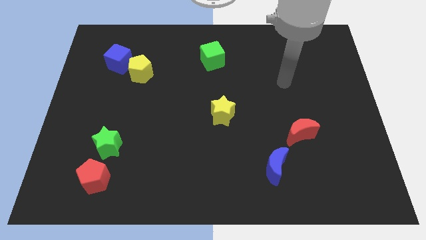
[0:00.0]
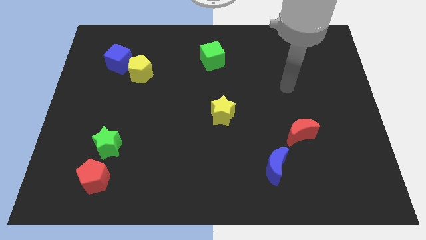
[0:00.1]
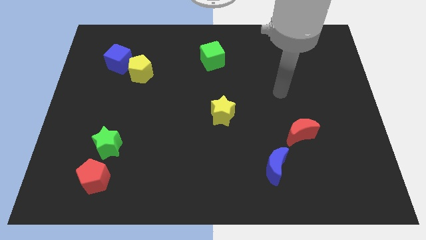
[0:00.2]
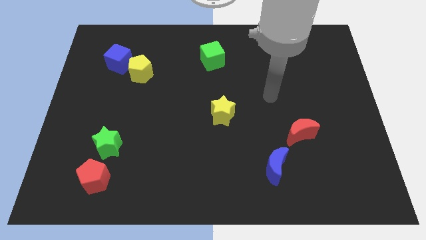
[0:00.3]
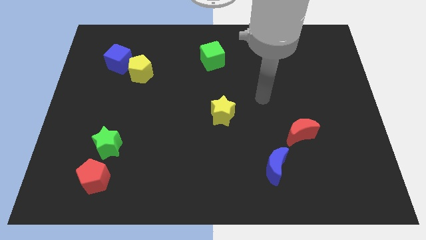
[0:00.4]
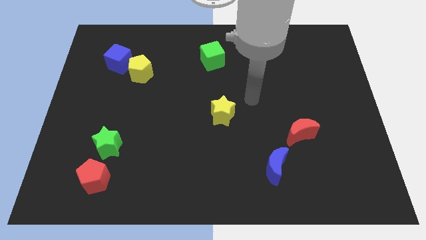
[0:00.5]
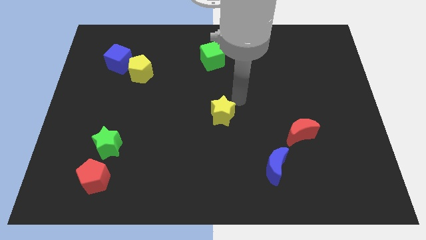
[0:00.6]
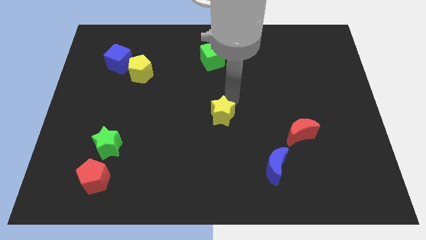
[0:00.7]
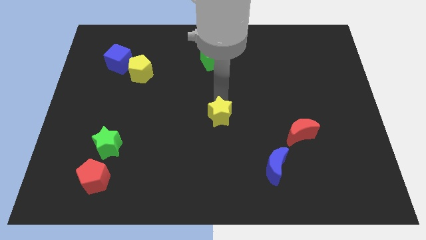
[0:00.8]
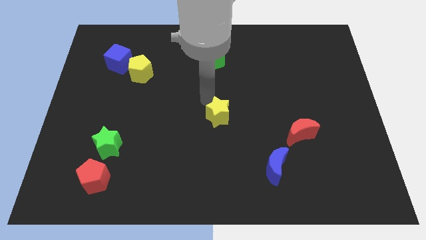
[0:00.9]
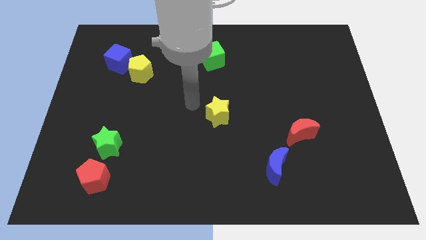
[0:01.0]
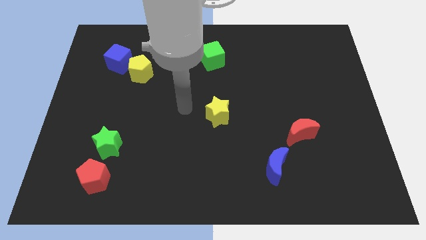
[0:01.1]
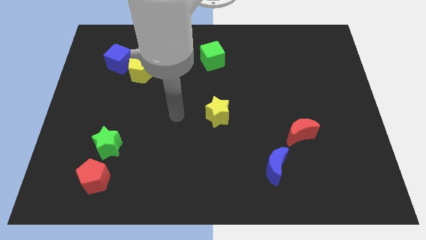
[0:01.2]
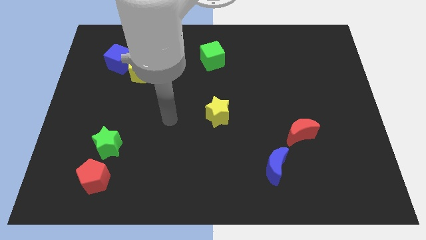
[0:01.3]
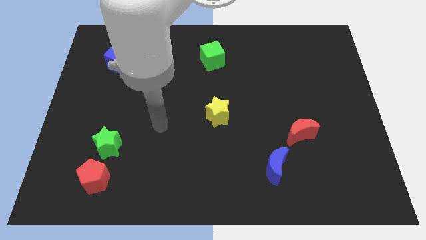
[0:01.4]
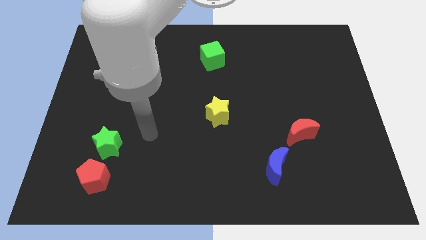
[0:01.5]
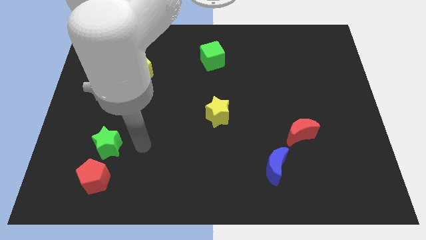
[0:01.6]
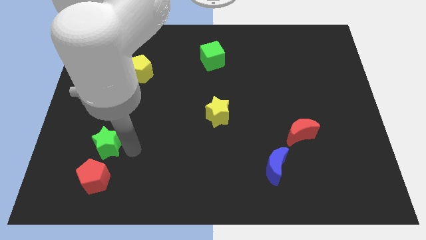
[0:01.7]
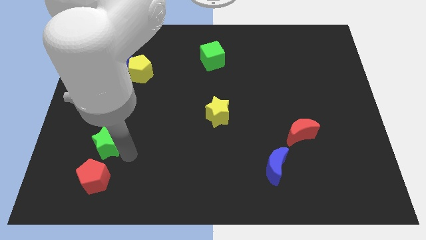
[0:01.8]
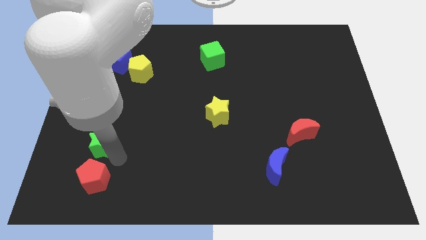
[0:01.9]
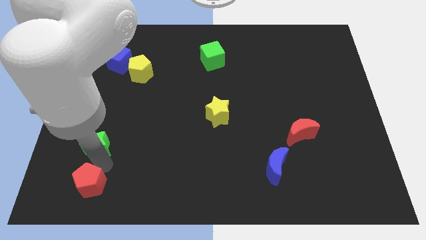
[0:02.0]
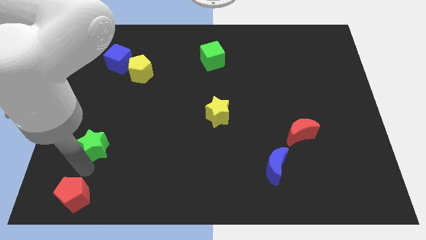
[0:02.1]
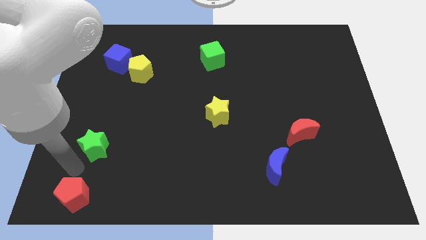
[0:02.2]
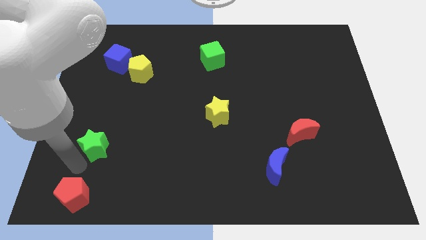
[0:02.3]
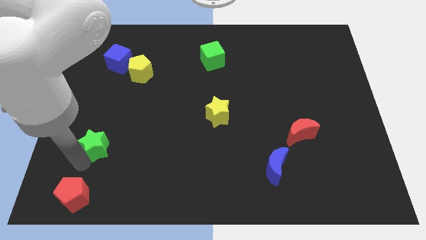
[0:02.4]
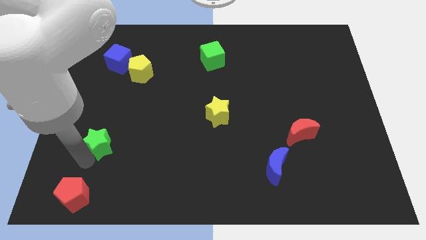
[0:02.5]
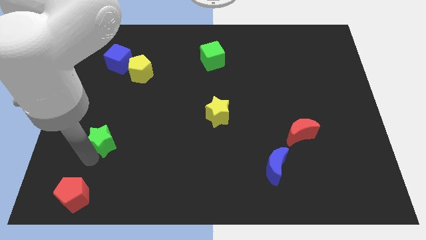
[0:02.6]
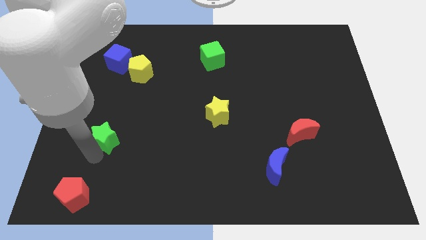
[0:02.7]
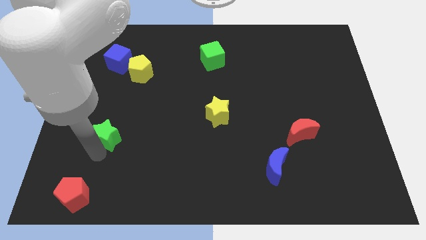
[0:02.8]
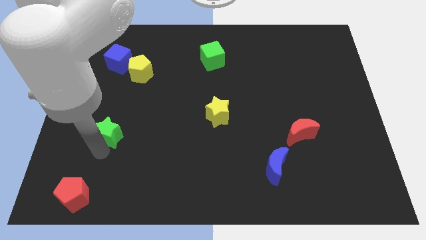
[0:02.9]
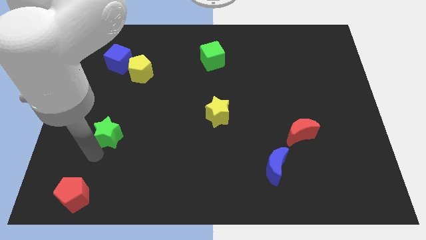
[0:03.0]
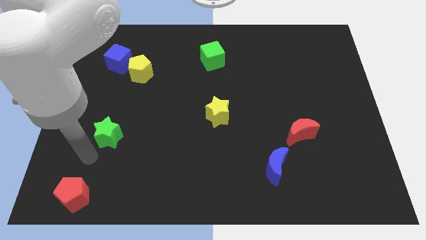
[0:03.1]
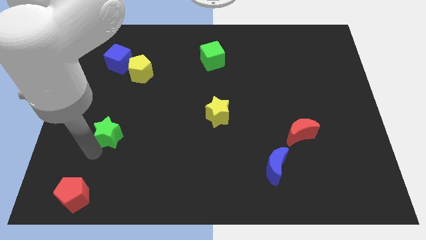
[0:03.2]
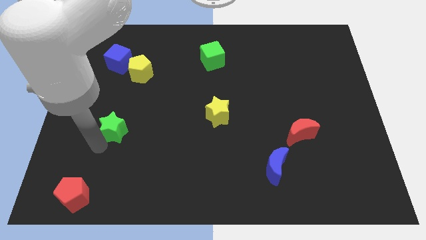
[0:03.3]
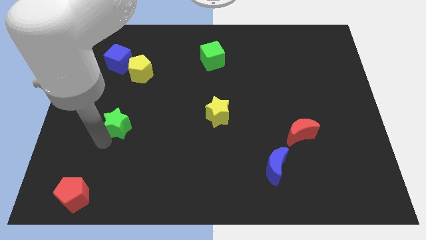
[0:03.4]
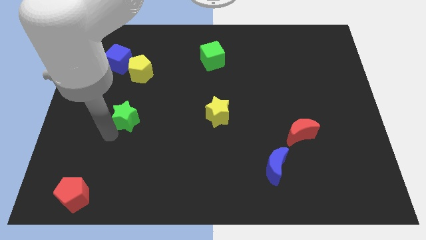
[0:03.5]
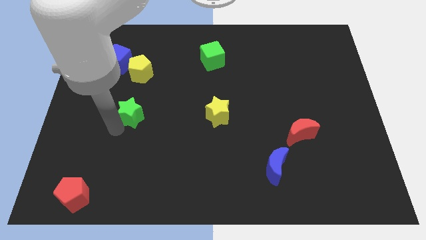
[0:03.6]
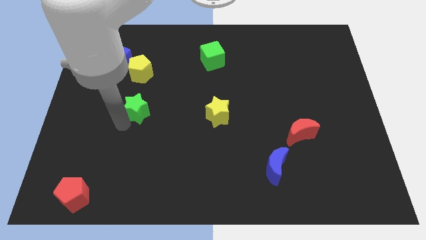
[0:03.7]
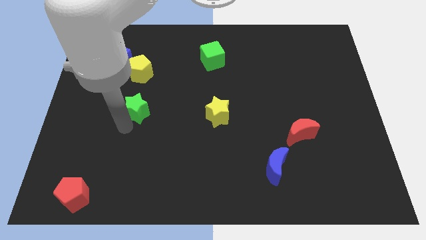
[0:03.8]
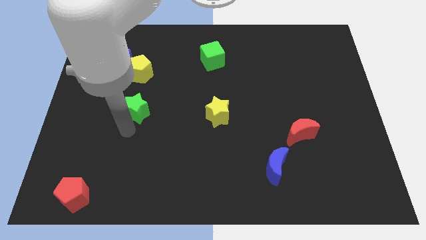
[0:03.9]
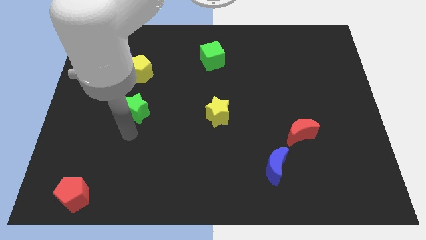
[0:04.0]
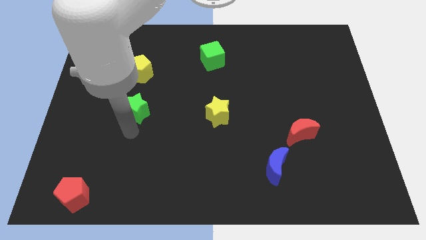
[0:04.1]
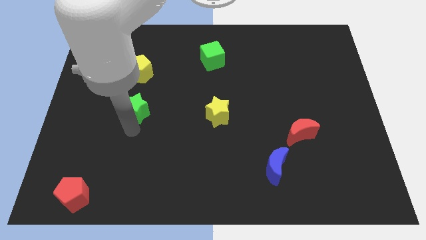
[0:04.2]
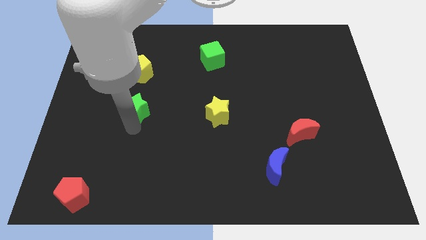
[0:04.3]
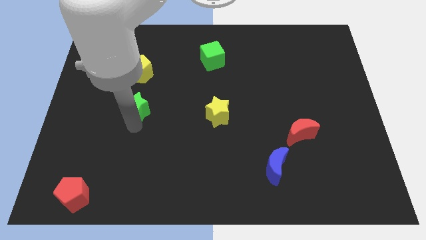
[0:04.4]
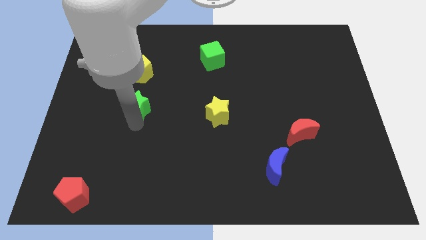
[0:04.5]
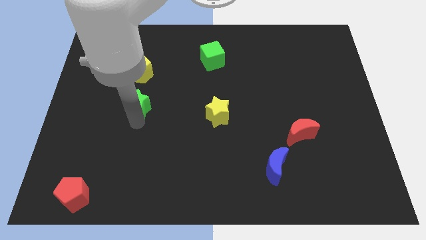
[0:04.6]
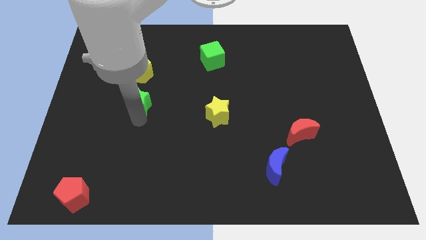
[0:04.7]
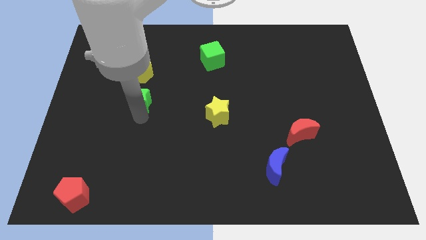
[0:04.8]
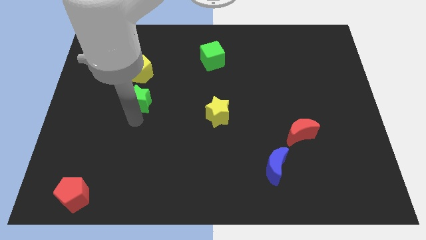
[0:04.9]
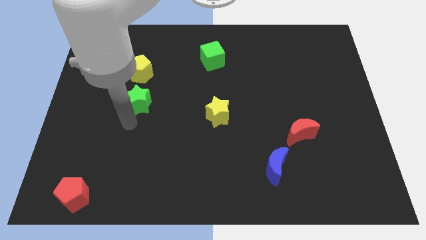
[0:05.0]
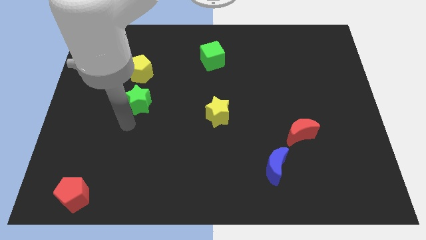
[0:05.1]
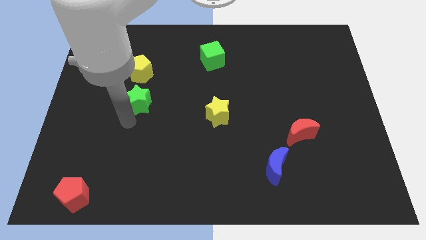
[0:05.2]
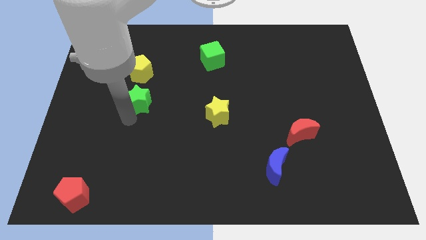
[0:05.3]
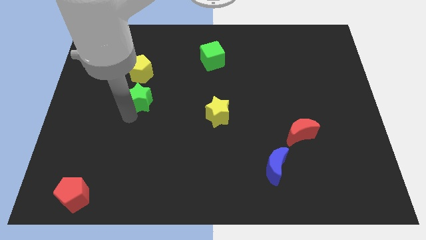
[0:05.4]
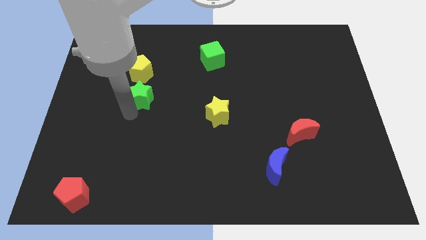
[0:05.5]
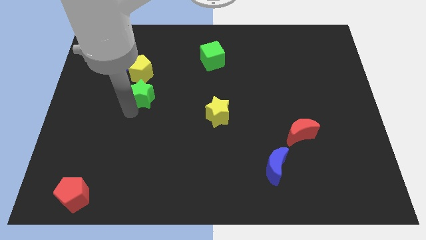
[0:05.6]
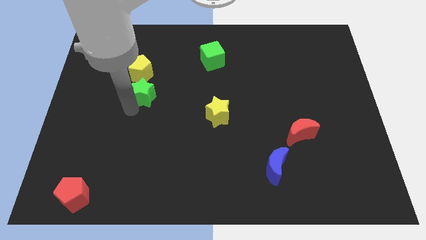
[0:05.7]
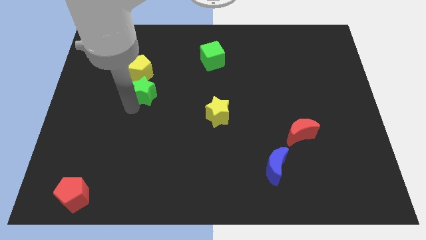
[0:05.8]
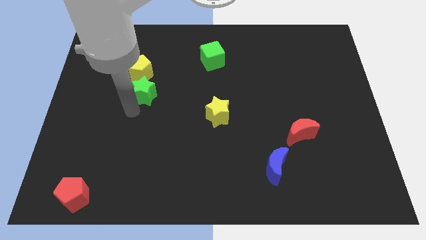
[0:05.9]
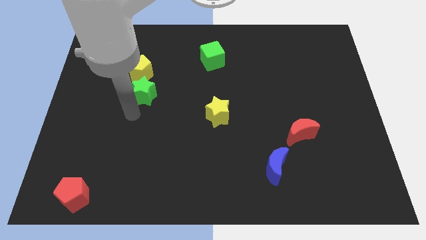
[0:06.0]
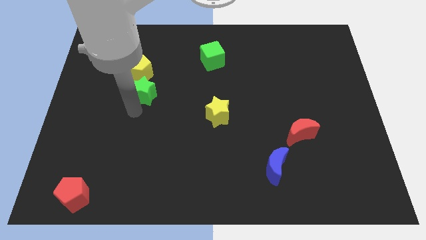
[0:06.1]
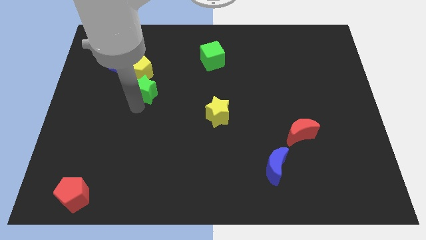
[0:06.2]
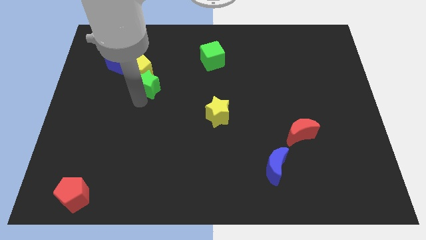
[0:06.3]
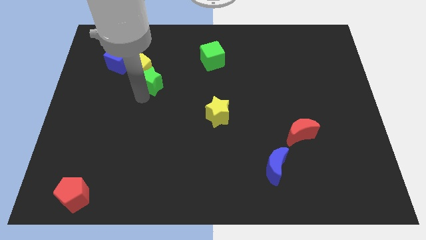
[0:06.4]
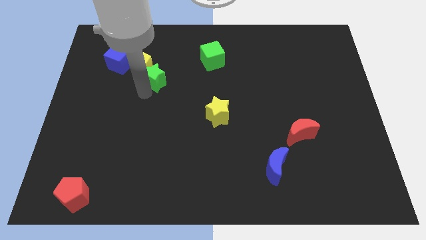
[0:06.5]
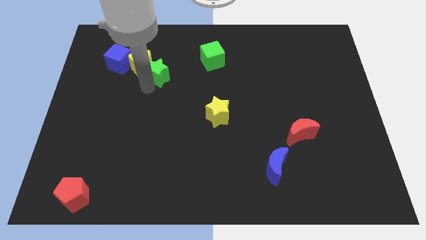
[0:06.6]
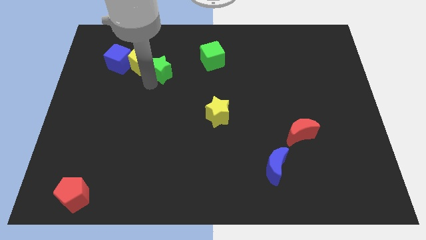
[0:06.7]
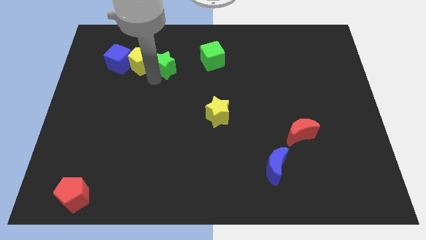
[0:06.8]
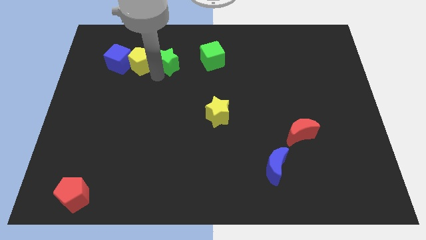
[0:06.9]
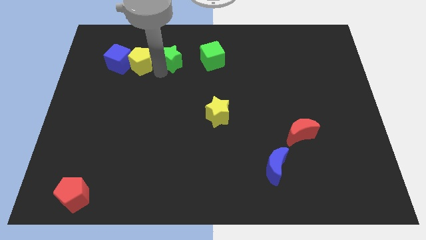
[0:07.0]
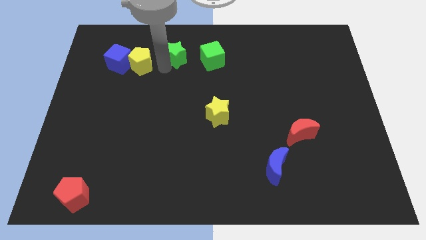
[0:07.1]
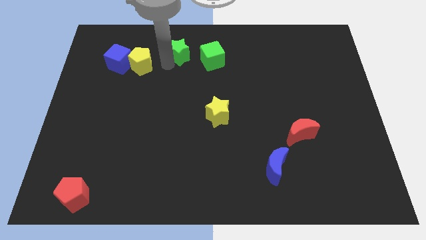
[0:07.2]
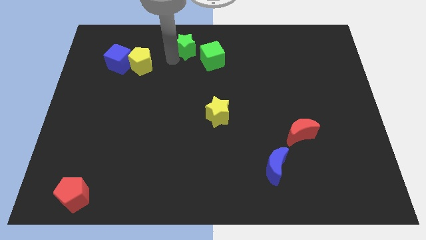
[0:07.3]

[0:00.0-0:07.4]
put the green star to the top
